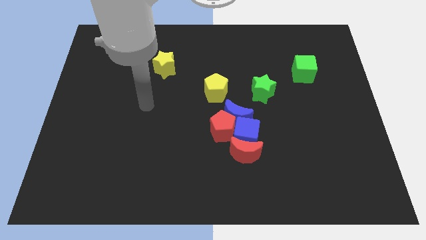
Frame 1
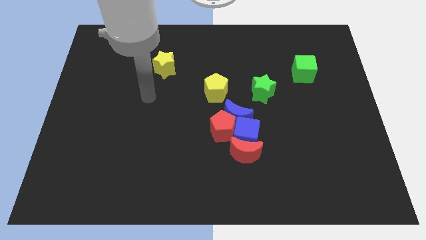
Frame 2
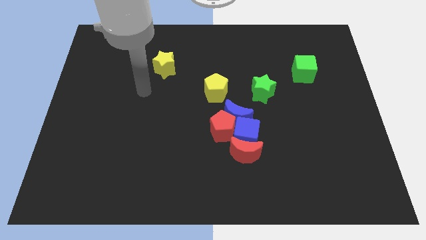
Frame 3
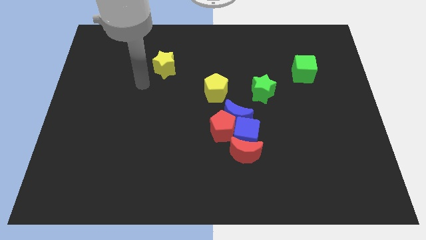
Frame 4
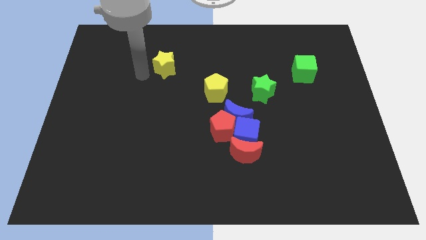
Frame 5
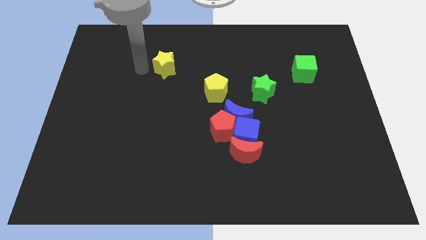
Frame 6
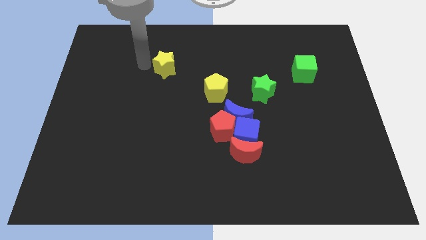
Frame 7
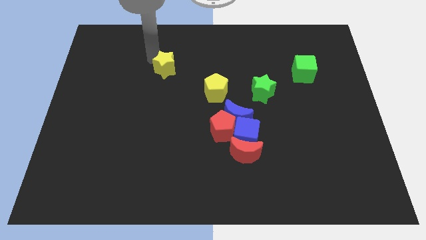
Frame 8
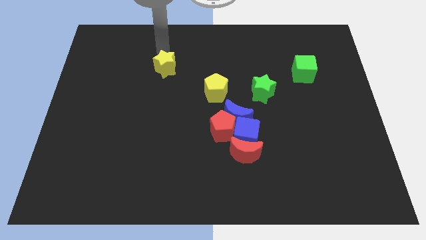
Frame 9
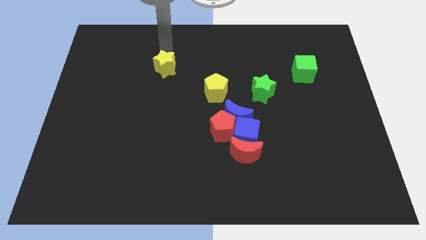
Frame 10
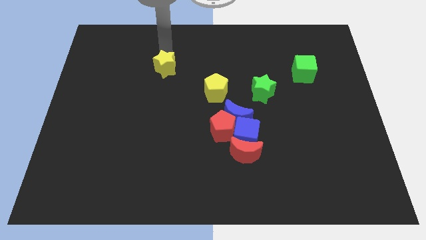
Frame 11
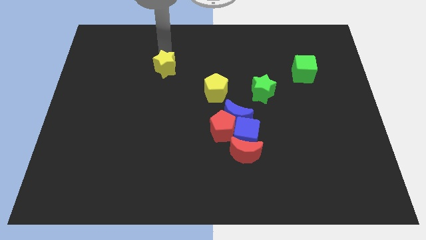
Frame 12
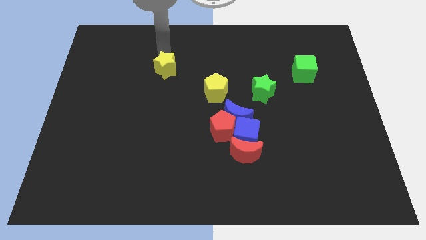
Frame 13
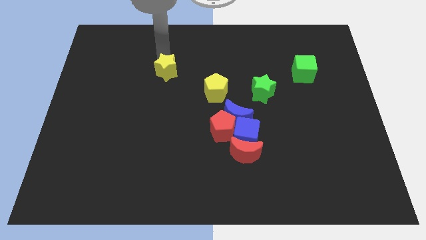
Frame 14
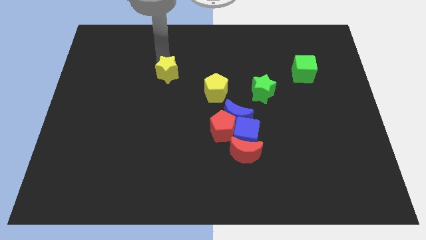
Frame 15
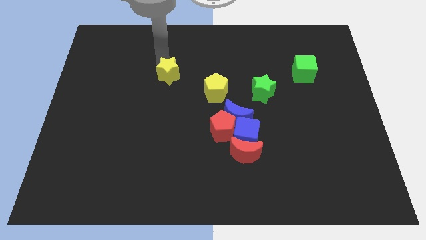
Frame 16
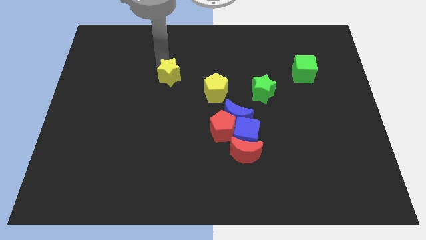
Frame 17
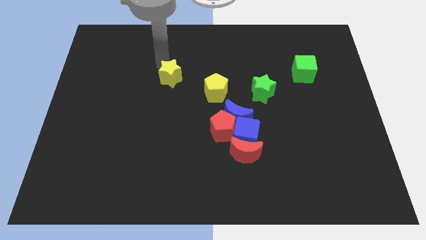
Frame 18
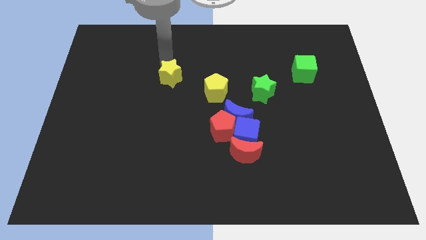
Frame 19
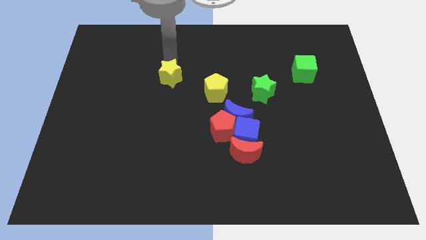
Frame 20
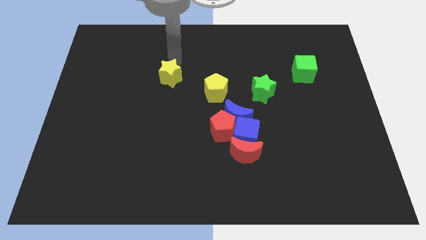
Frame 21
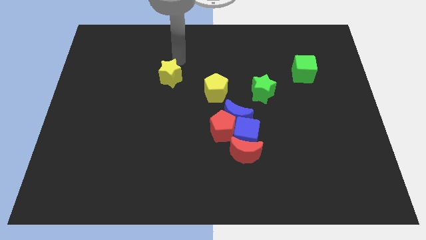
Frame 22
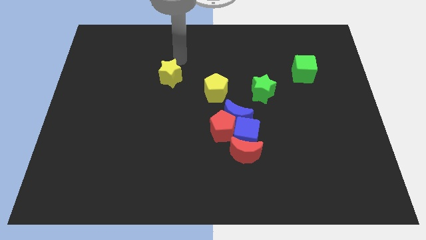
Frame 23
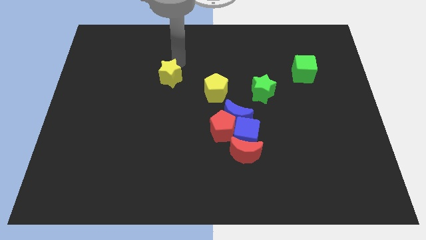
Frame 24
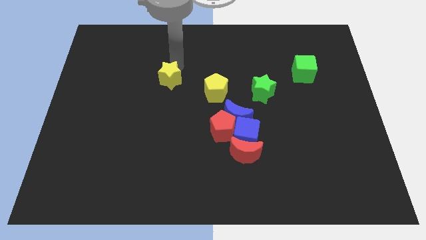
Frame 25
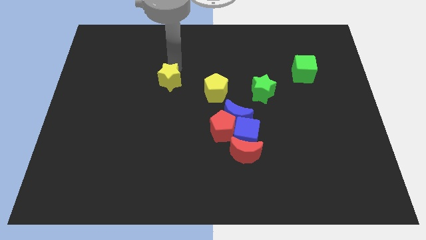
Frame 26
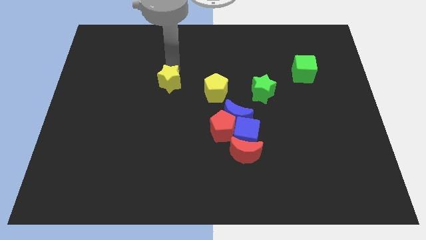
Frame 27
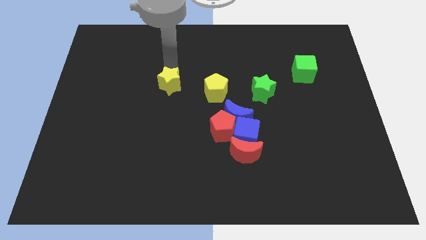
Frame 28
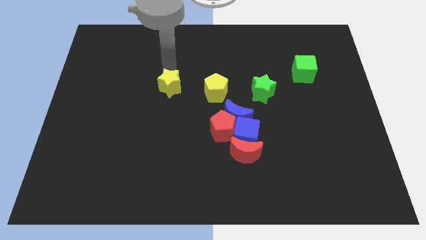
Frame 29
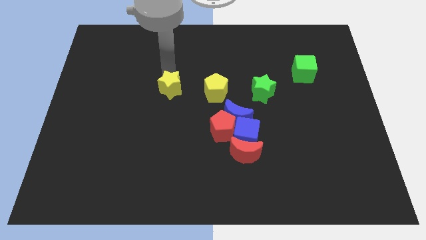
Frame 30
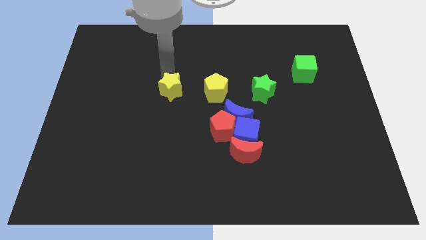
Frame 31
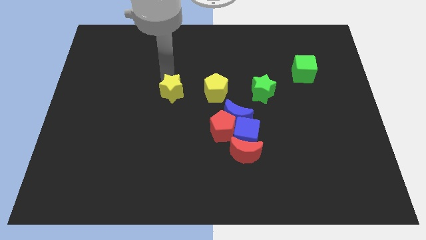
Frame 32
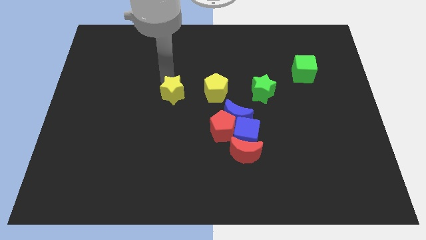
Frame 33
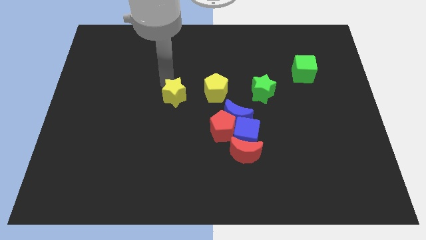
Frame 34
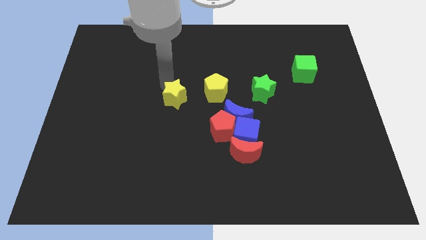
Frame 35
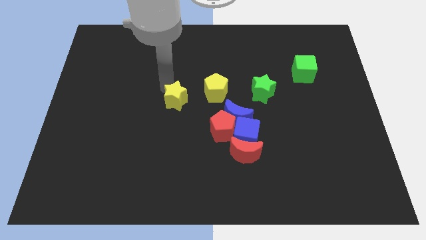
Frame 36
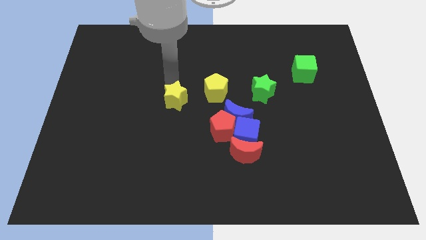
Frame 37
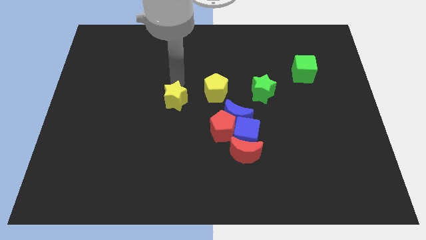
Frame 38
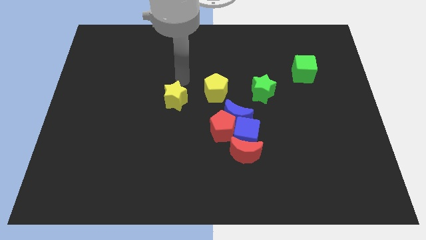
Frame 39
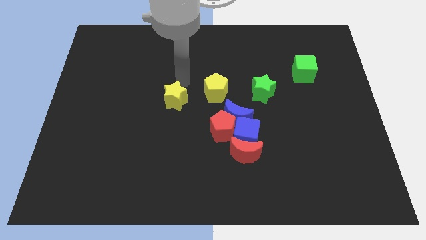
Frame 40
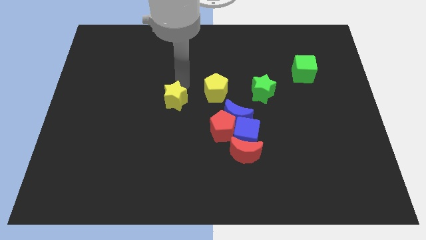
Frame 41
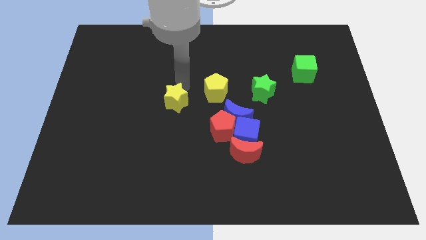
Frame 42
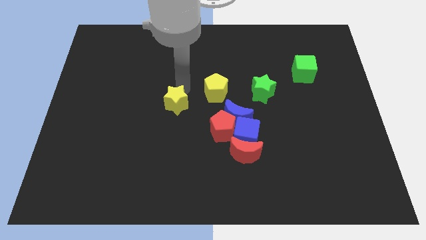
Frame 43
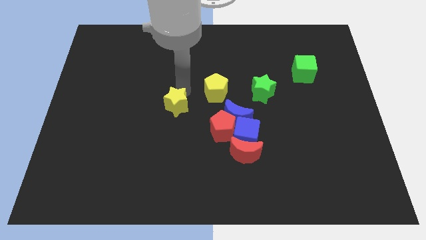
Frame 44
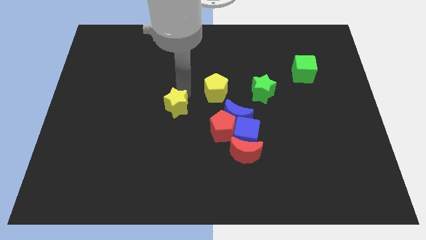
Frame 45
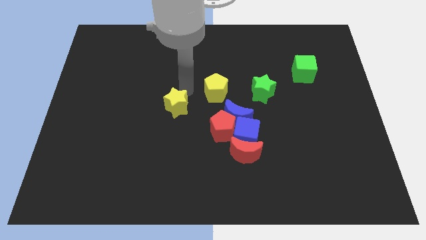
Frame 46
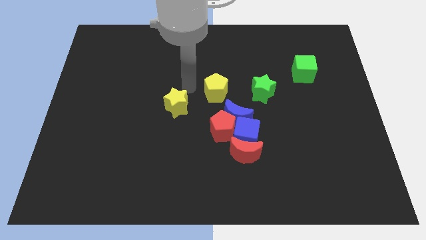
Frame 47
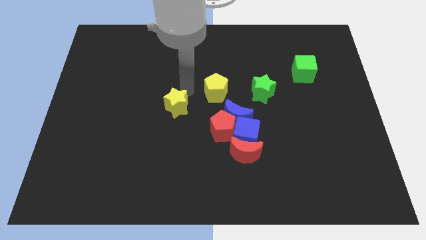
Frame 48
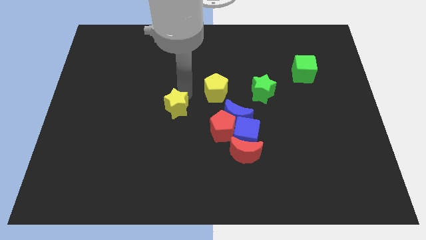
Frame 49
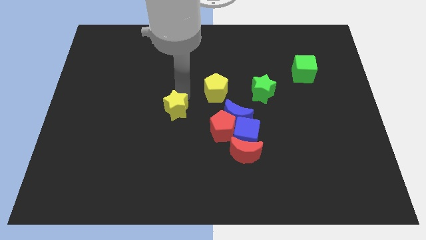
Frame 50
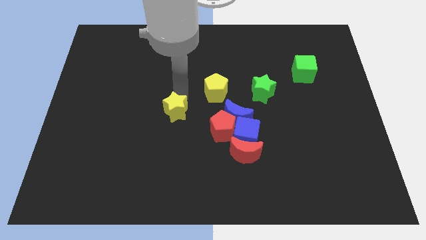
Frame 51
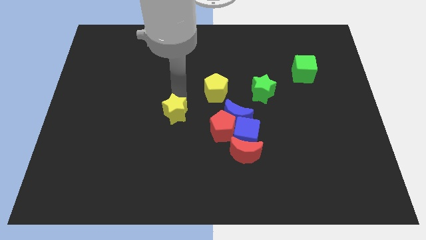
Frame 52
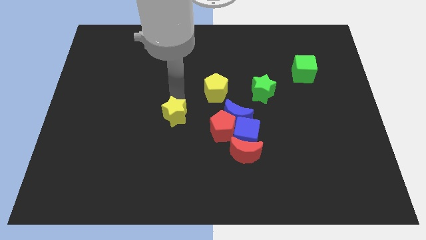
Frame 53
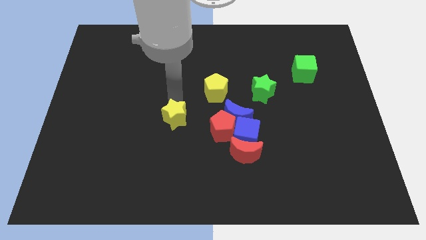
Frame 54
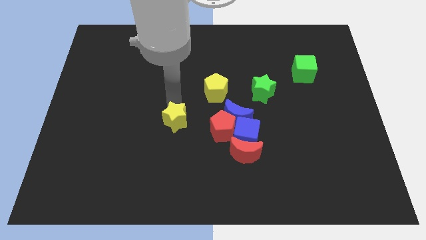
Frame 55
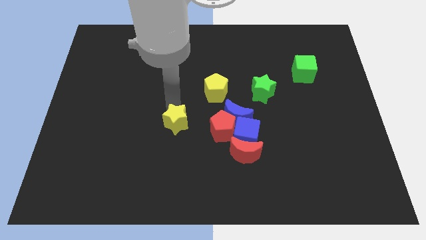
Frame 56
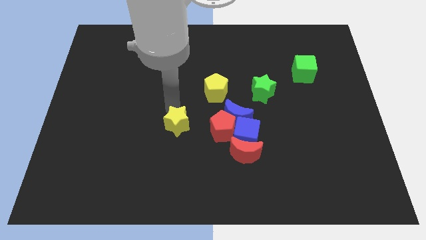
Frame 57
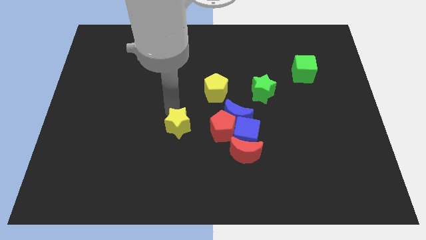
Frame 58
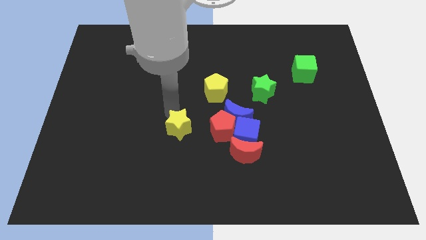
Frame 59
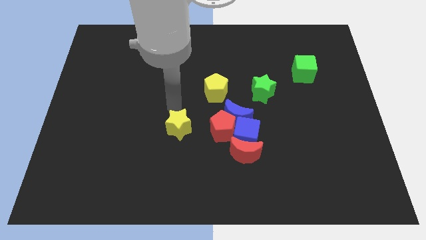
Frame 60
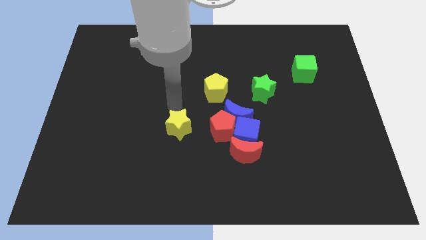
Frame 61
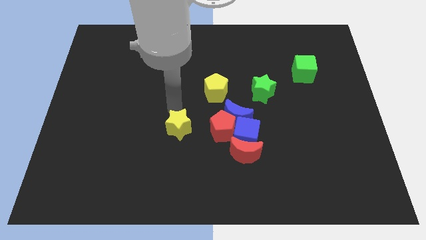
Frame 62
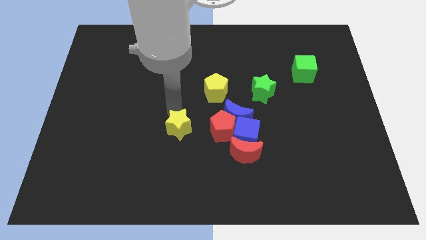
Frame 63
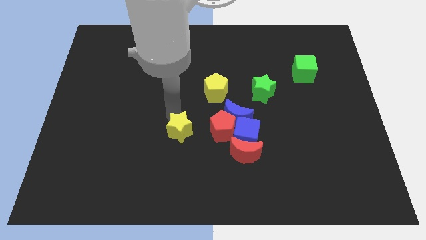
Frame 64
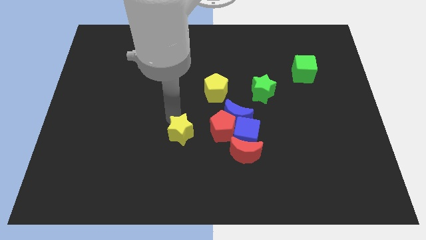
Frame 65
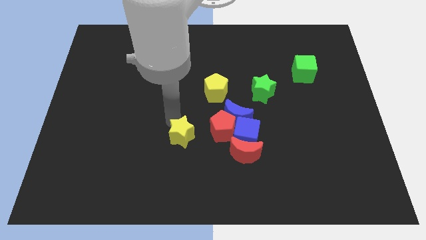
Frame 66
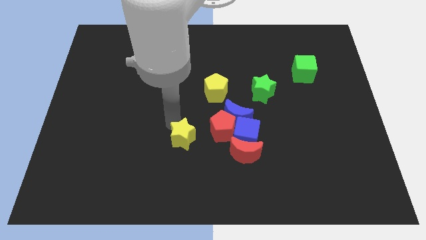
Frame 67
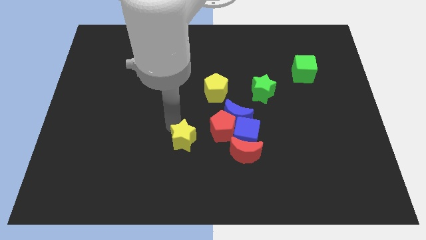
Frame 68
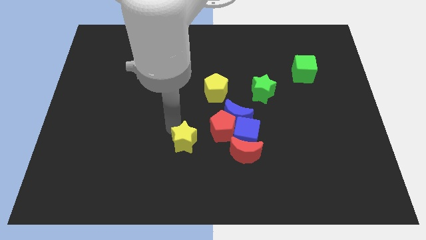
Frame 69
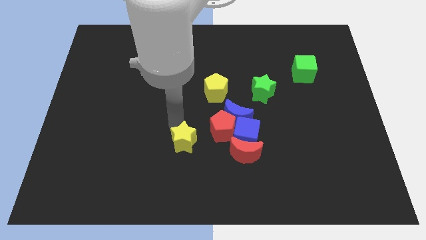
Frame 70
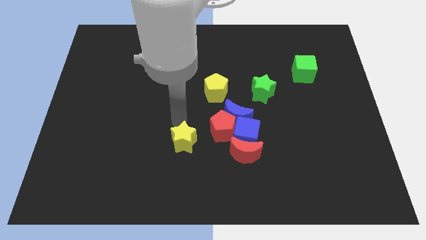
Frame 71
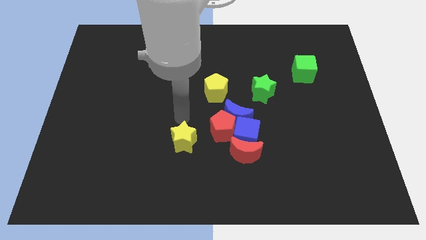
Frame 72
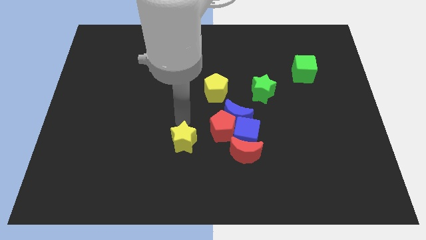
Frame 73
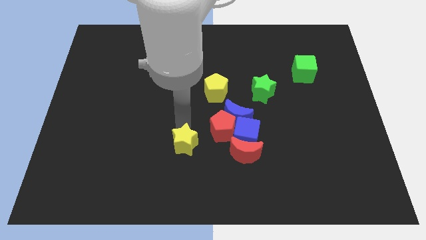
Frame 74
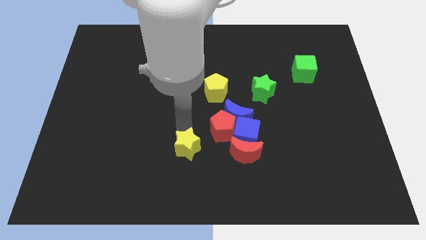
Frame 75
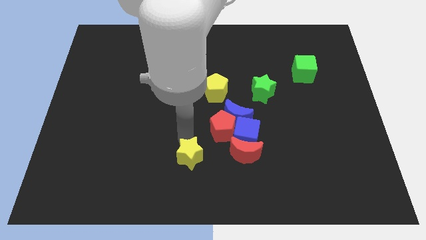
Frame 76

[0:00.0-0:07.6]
push the yellow star to the bottom
